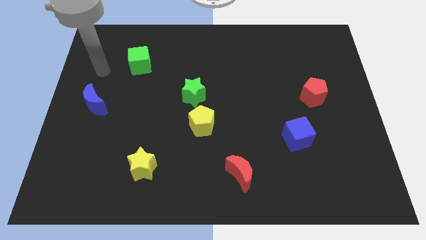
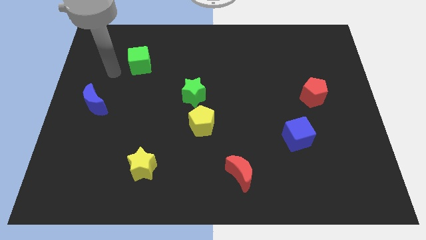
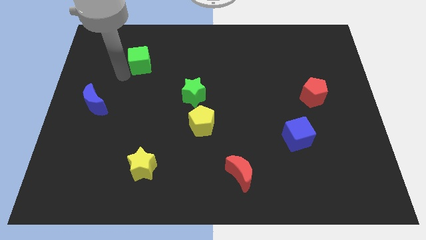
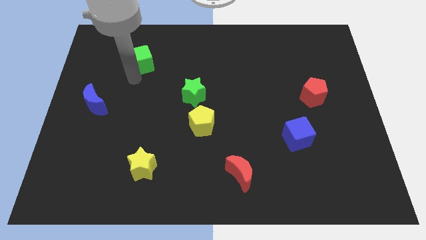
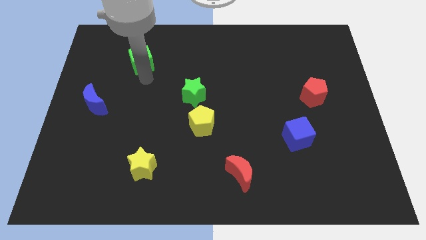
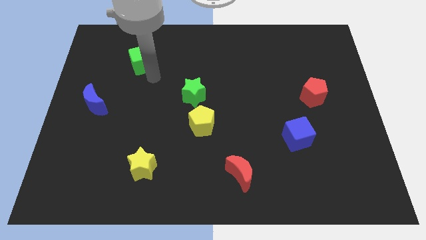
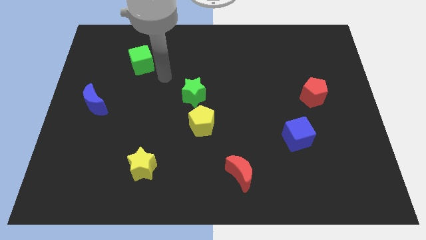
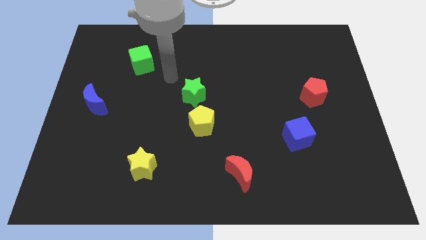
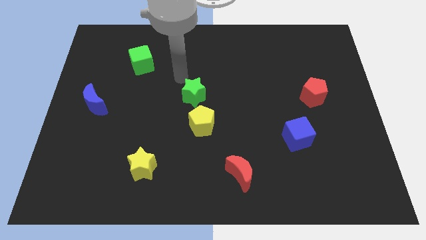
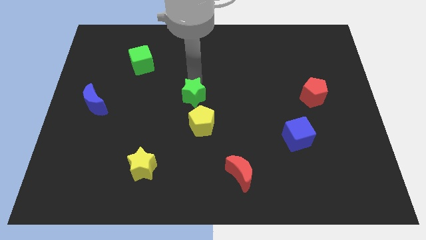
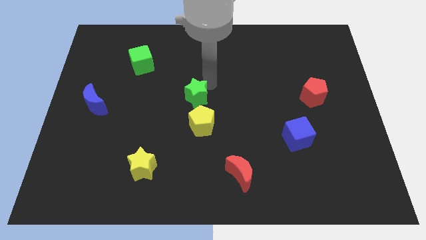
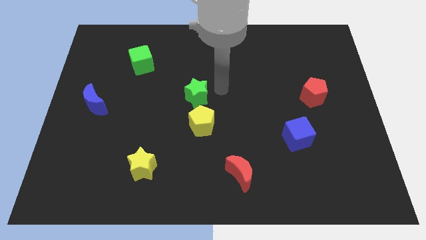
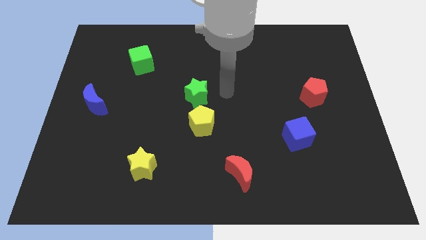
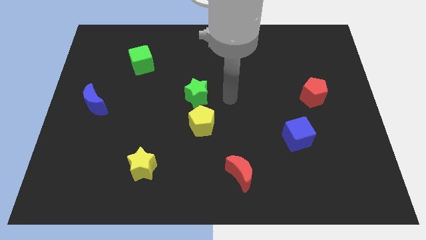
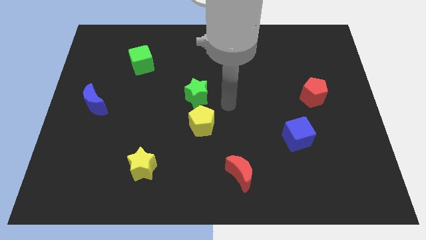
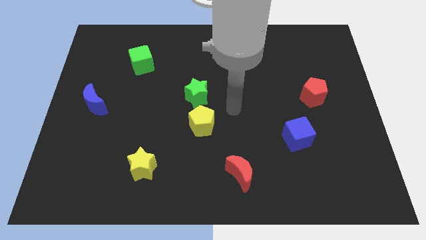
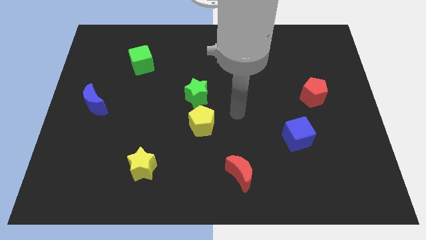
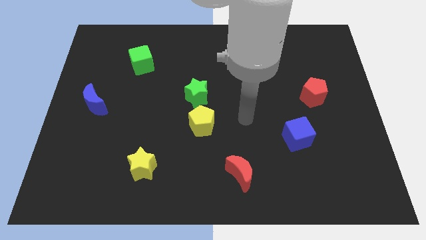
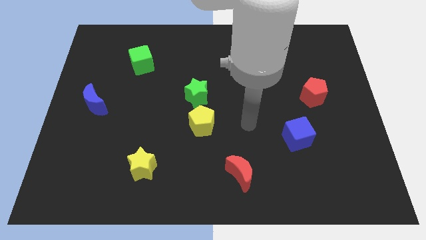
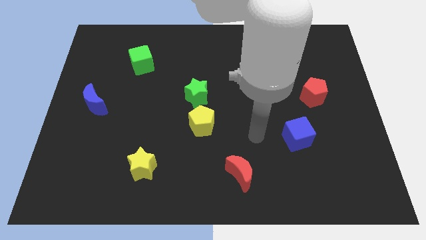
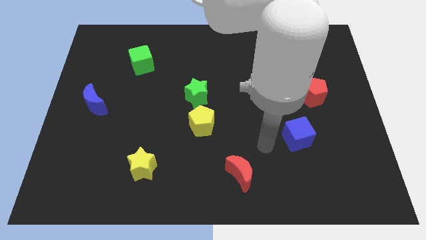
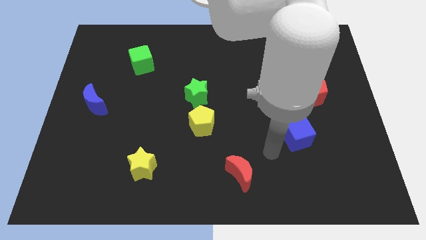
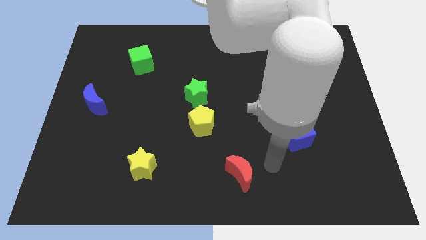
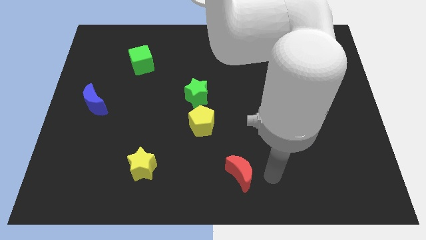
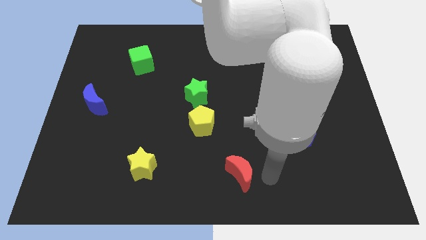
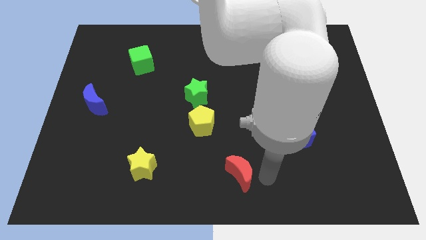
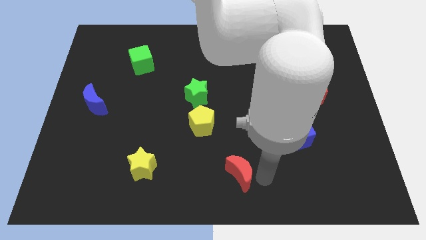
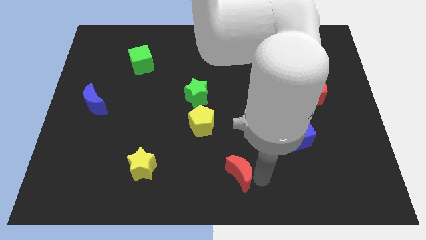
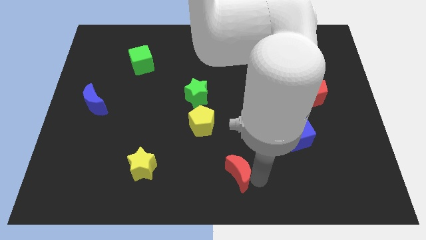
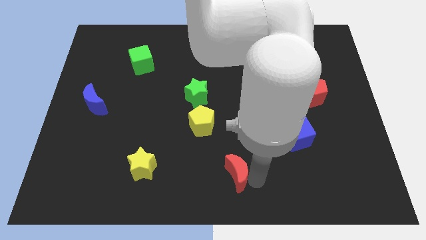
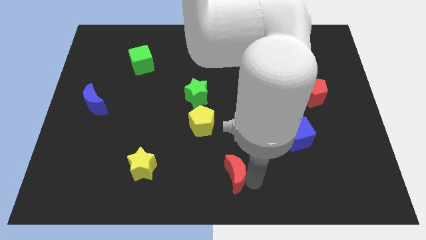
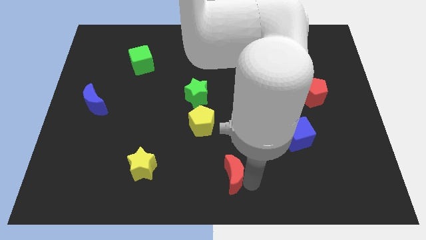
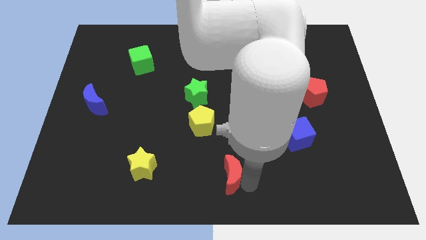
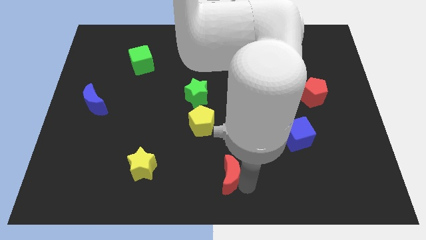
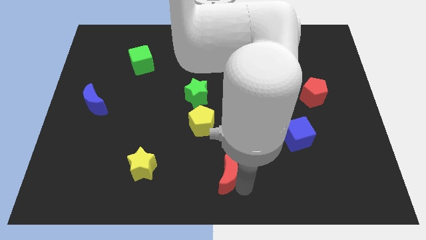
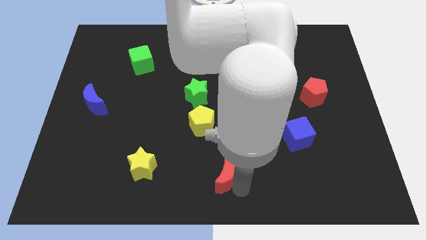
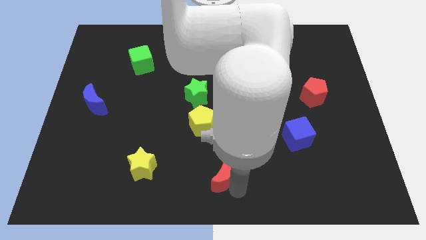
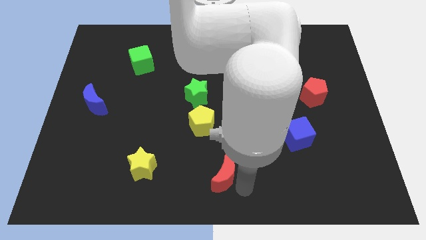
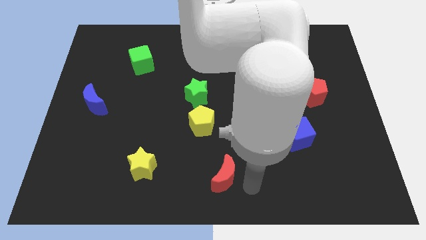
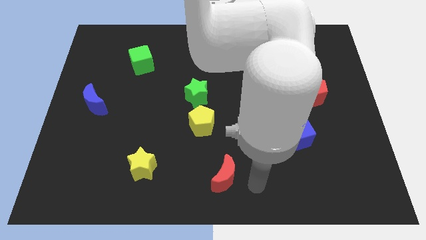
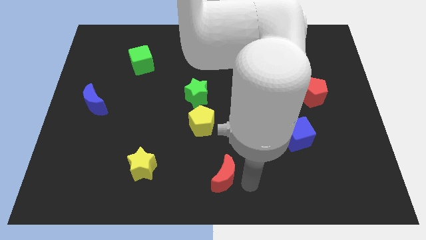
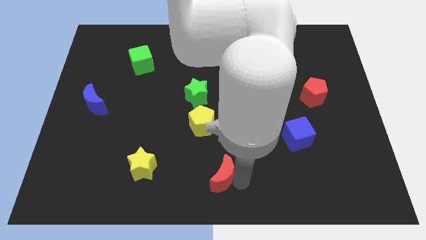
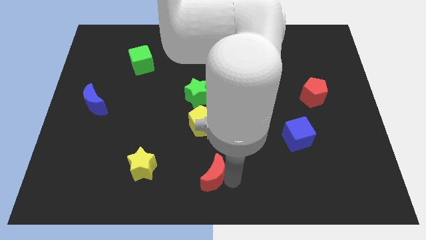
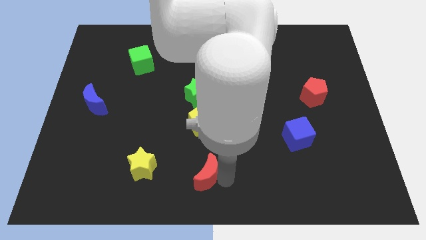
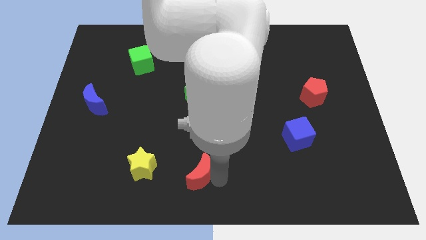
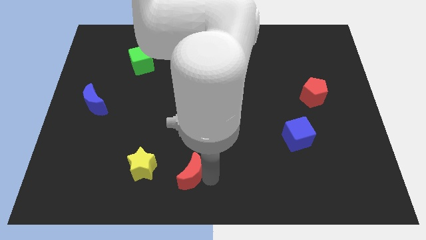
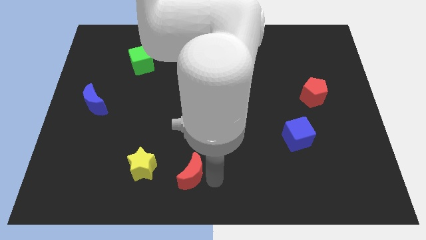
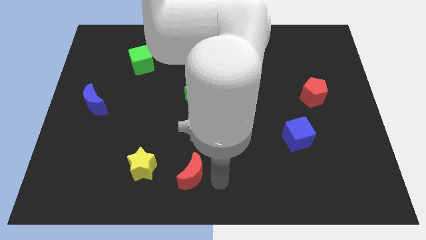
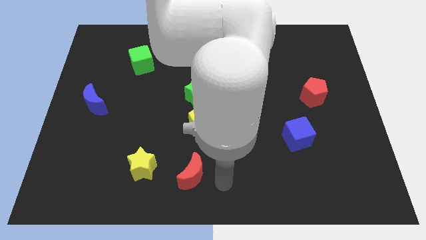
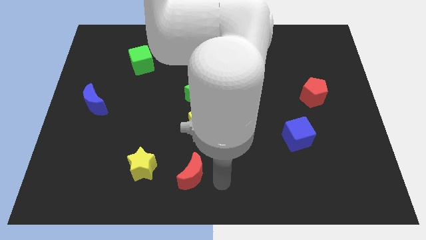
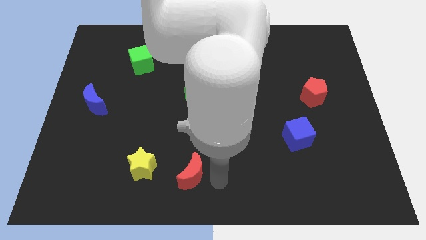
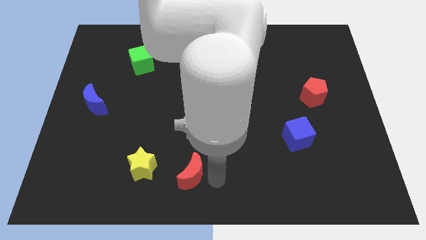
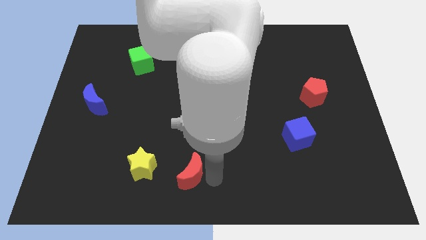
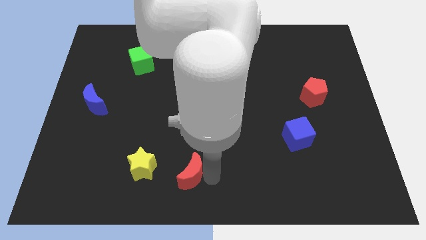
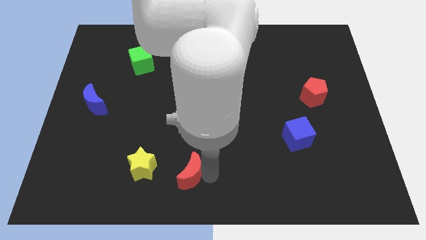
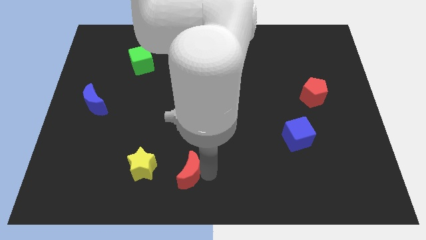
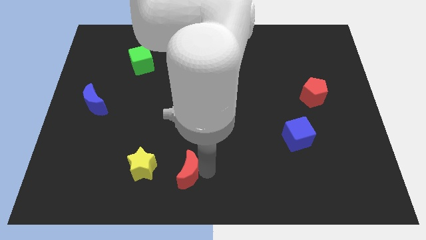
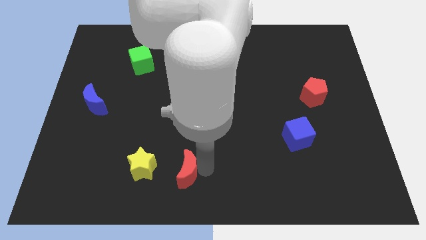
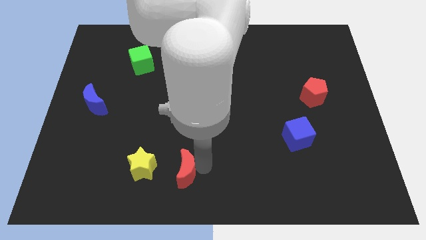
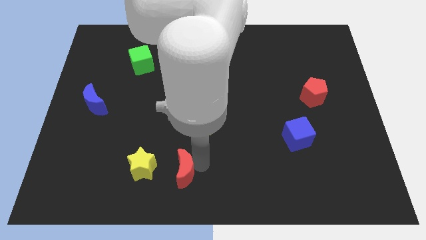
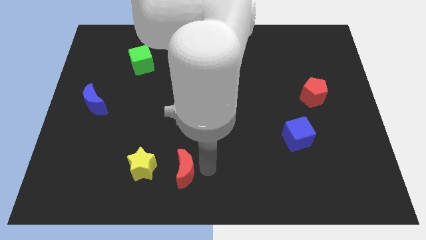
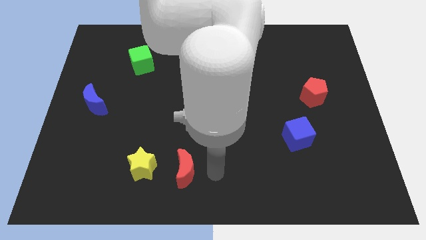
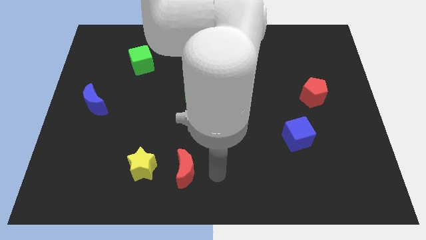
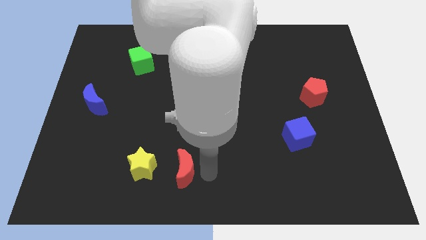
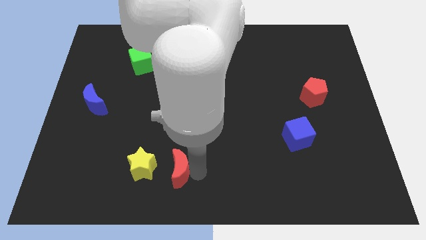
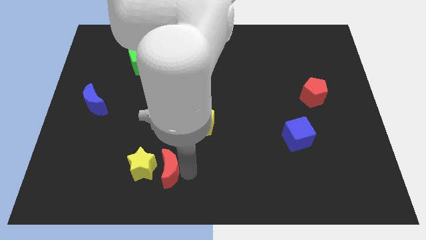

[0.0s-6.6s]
slide the red moon towards the yellow star

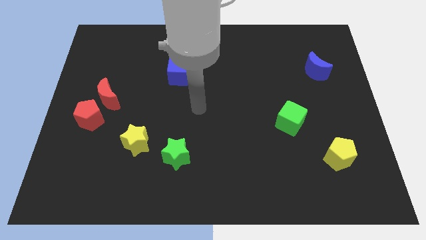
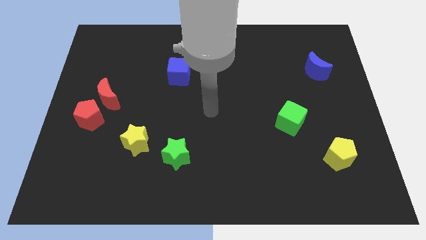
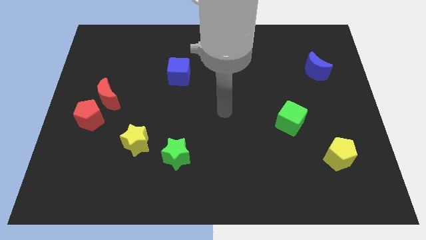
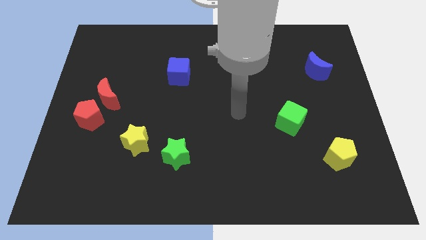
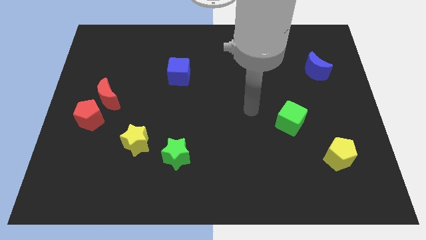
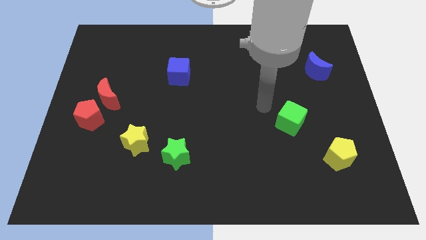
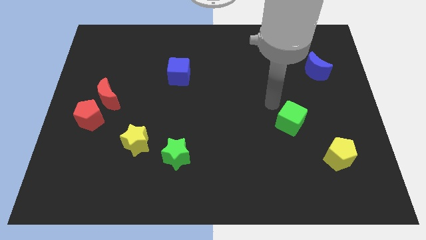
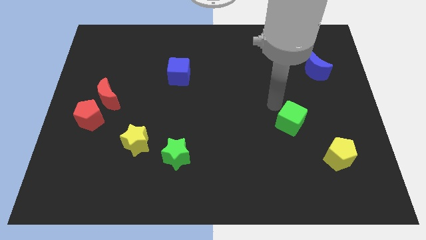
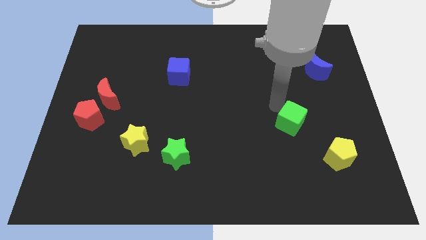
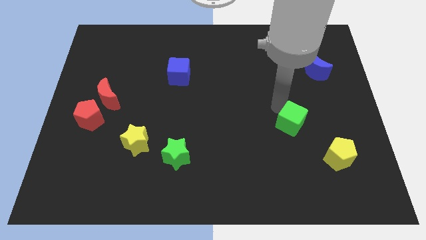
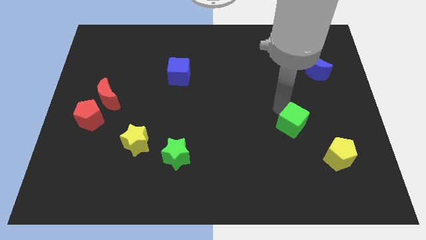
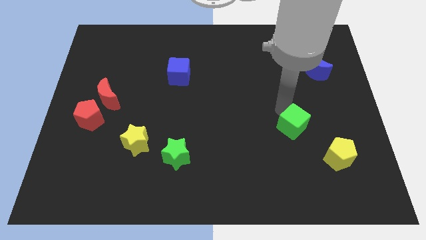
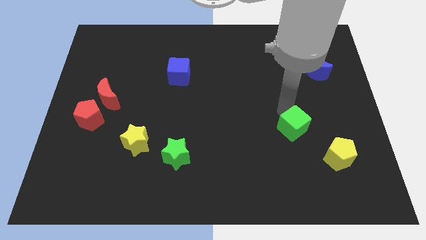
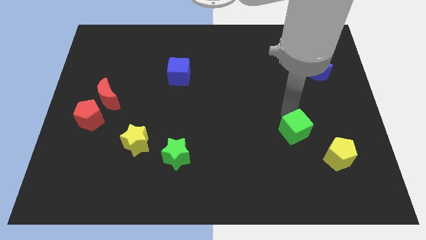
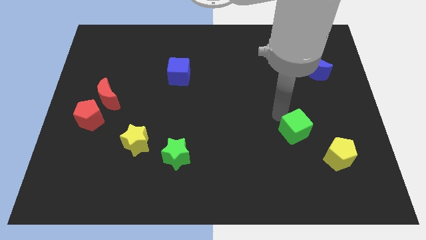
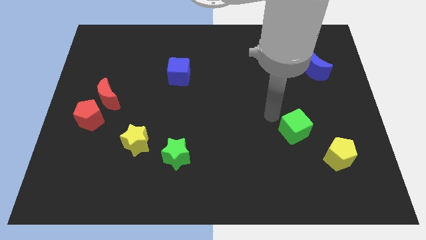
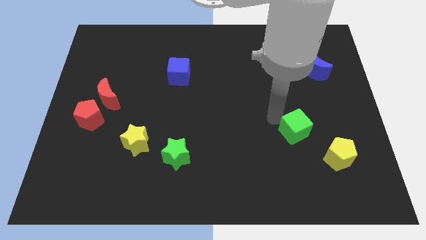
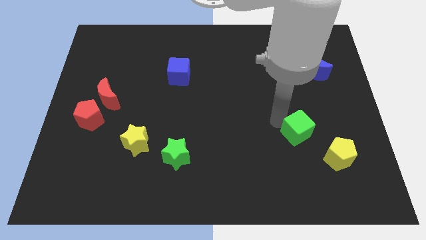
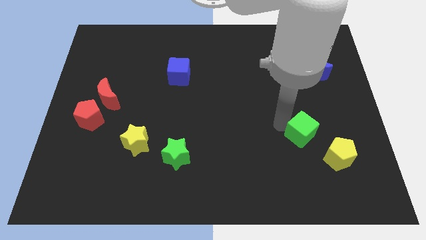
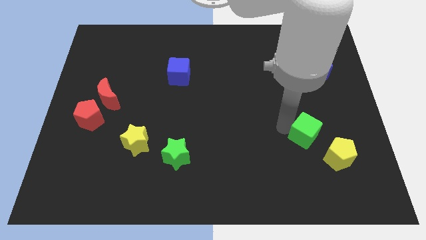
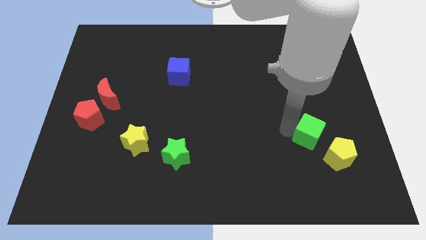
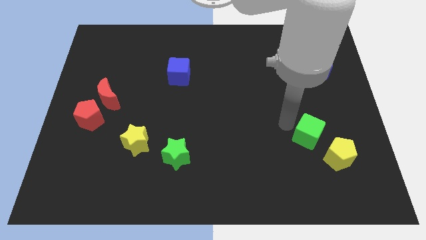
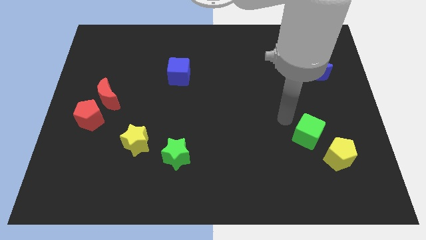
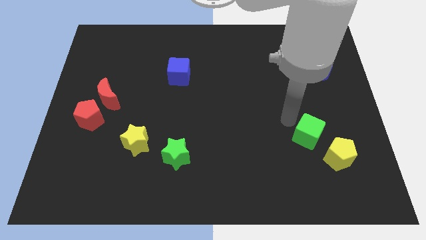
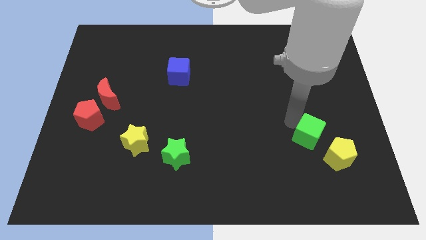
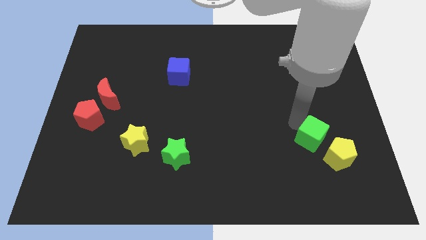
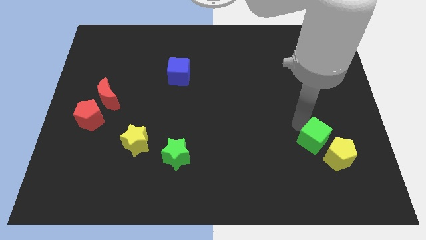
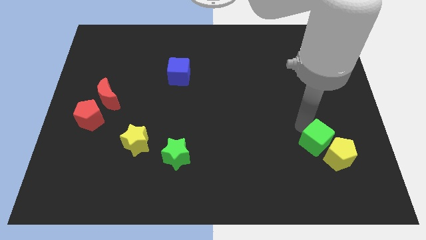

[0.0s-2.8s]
put the green cube towards the yellow pentagon
